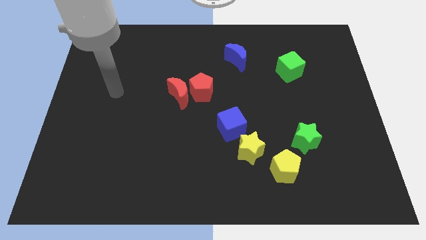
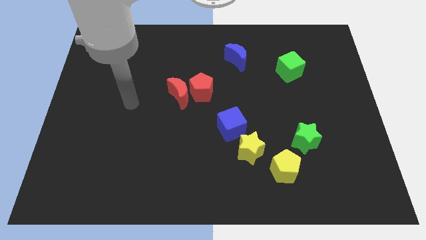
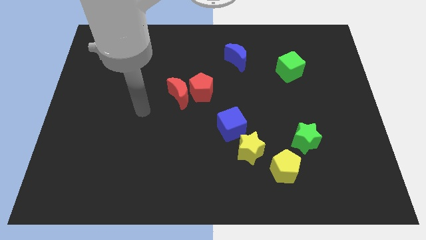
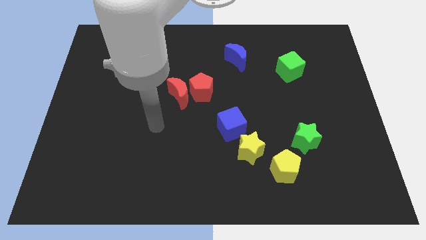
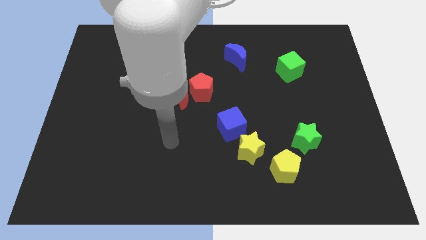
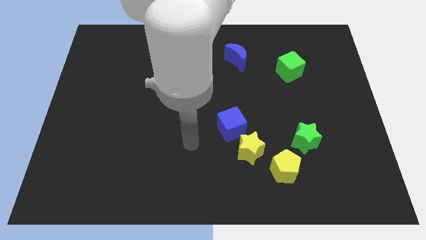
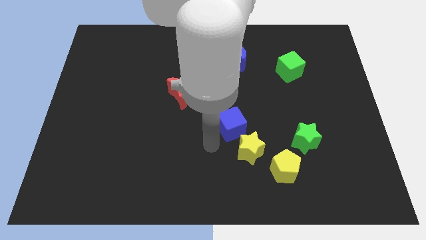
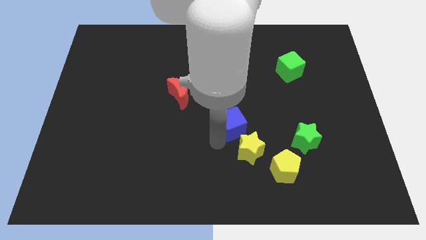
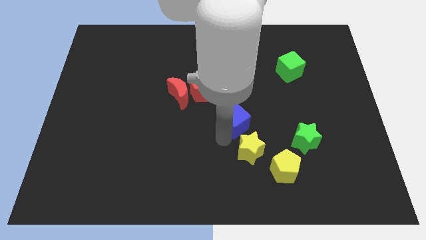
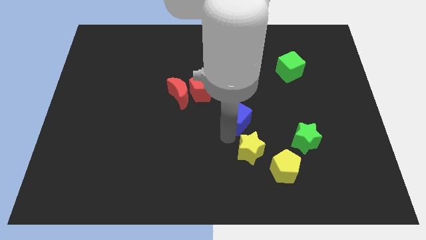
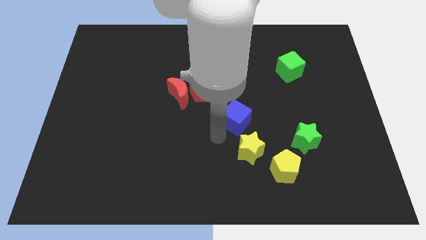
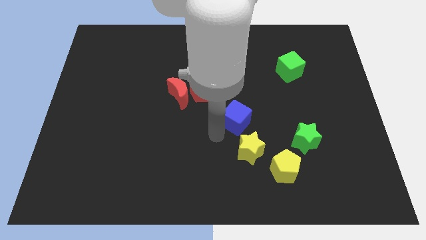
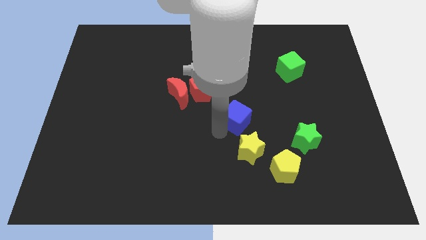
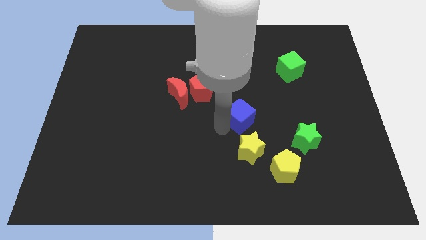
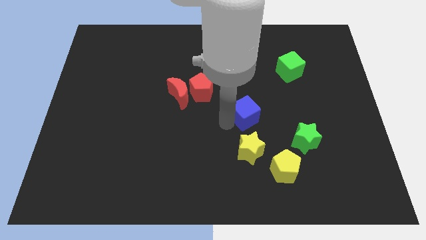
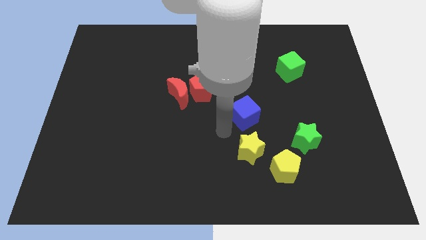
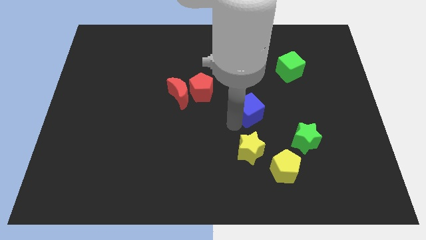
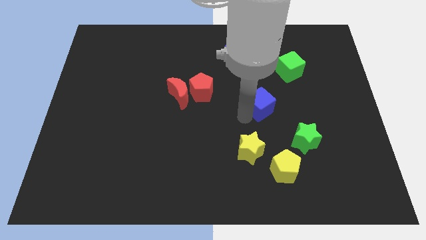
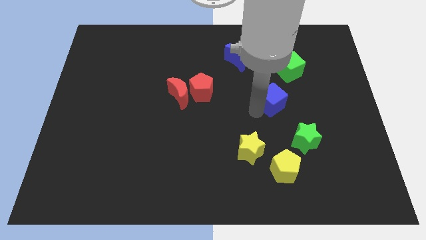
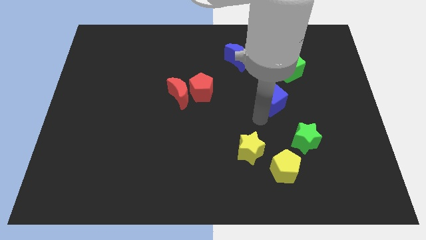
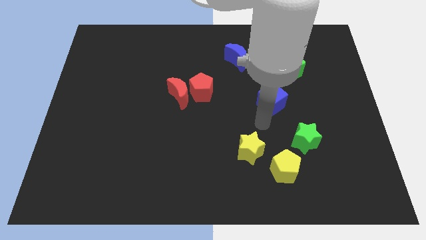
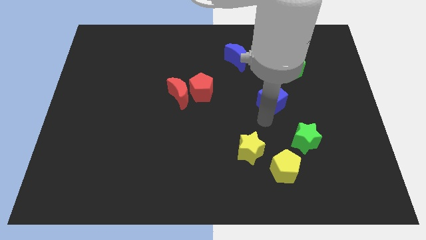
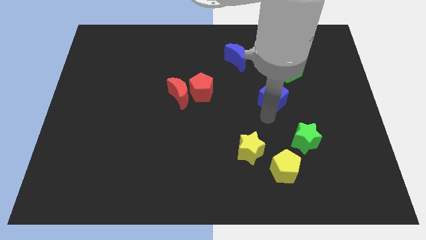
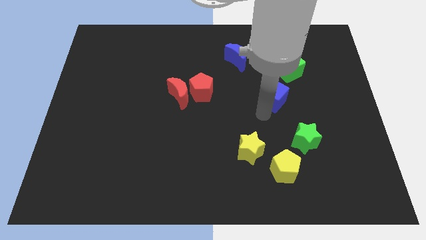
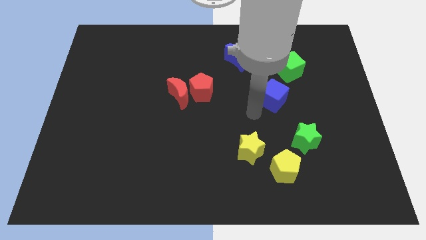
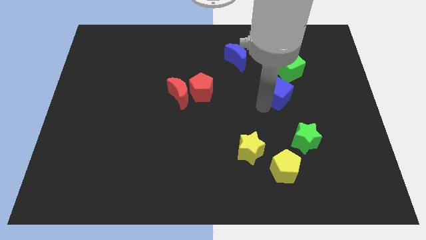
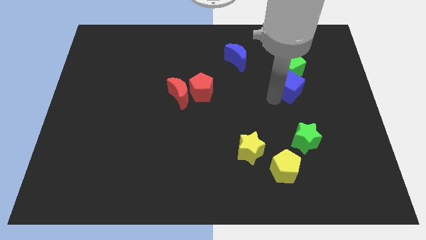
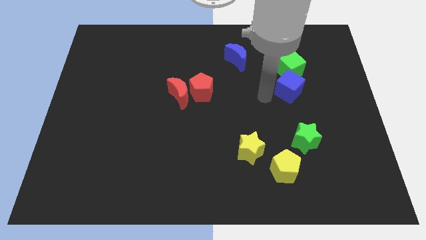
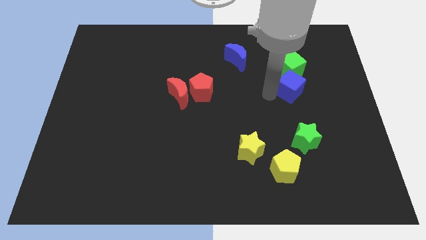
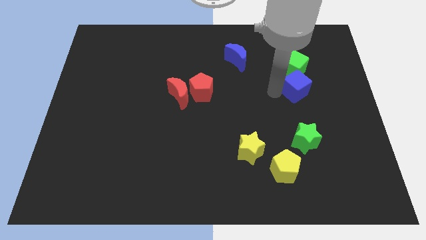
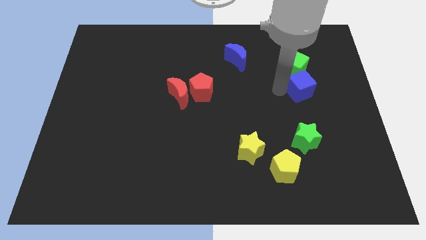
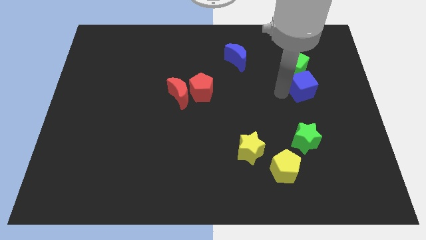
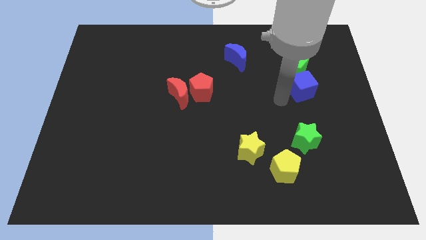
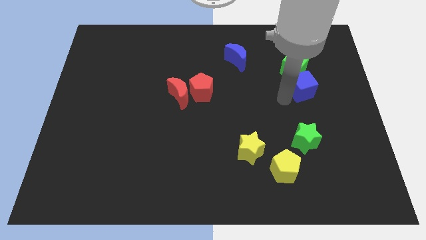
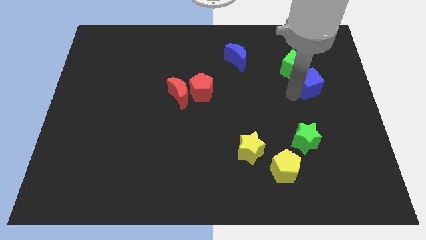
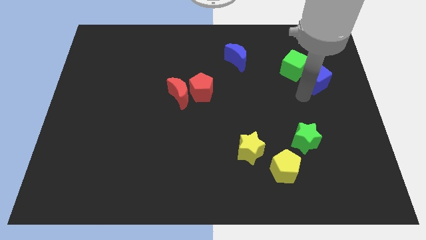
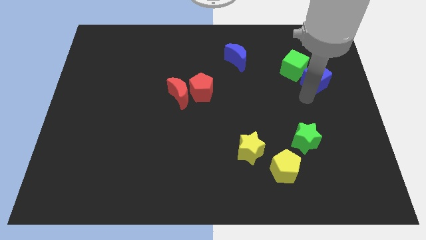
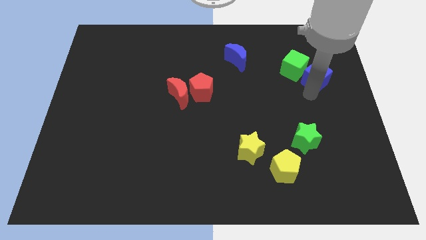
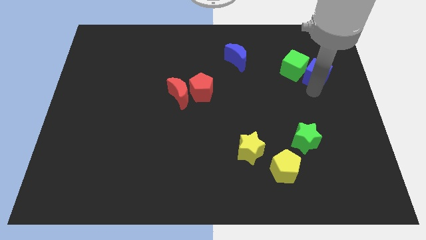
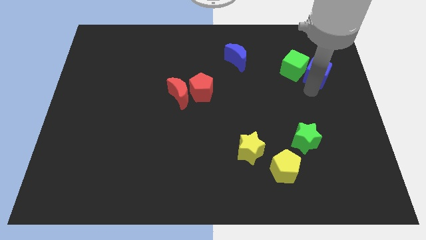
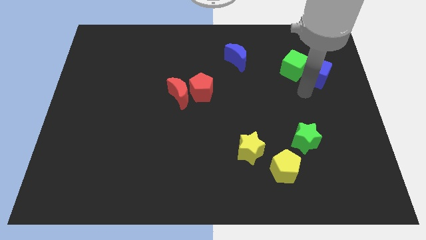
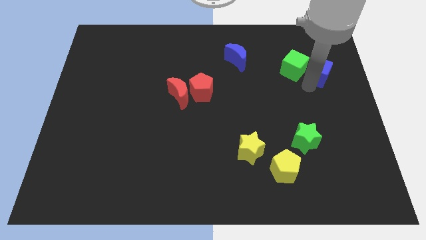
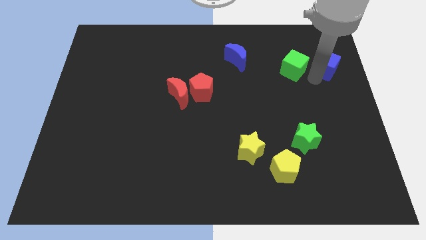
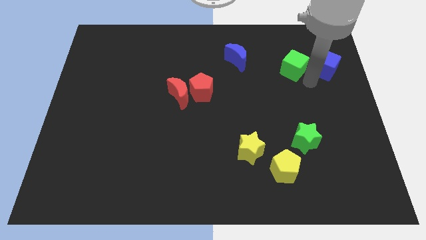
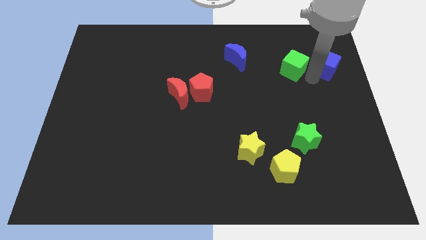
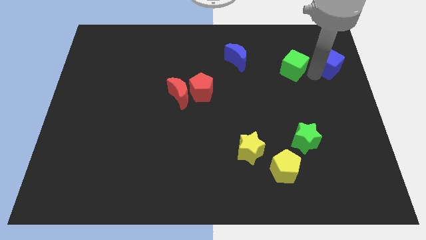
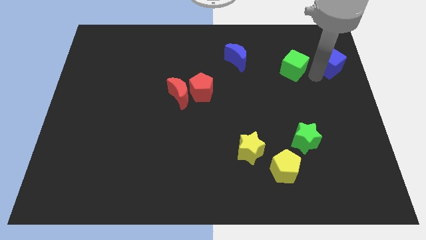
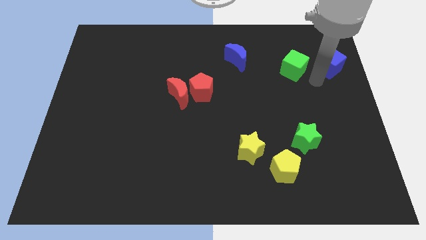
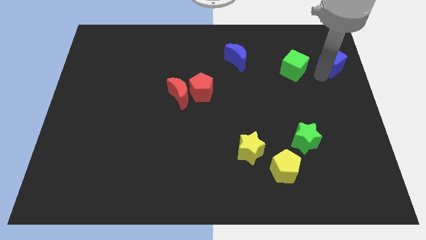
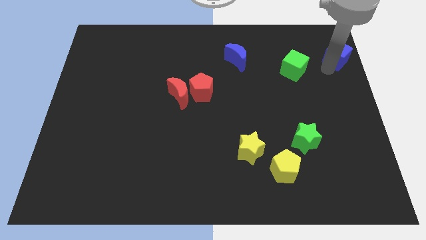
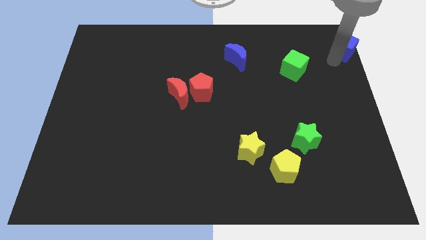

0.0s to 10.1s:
put the blue cube to the upper right corner

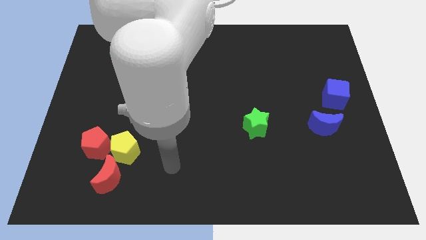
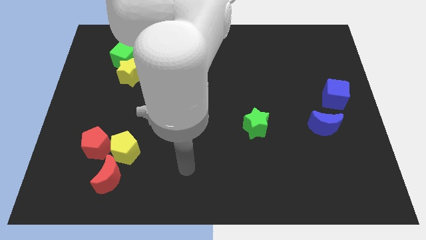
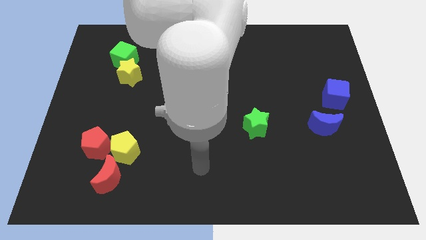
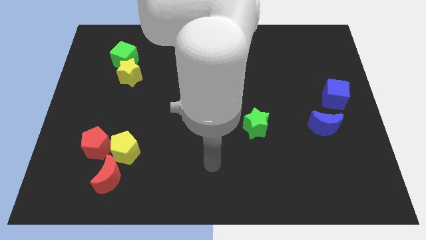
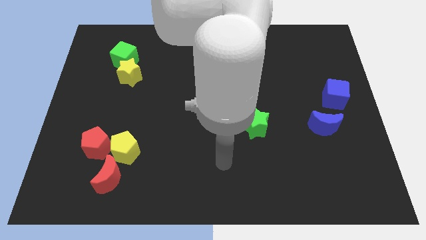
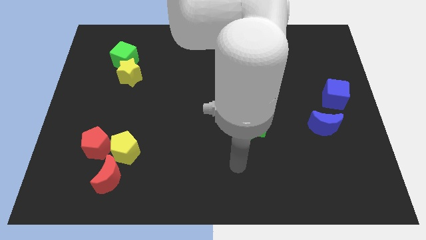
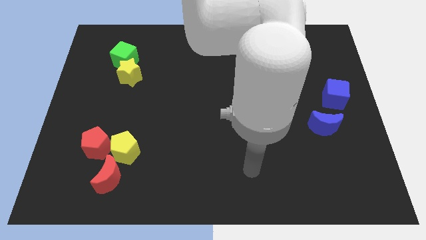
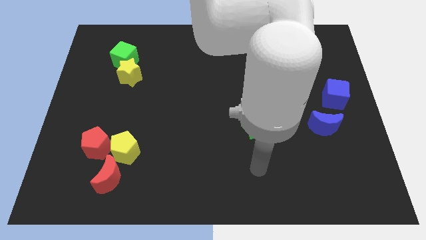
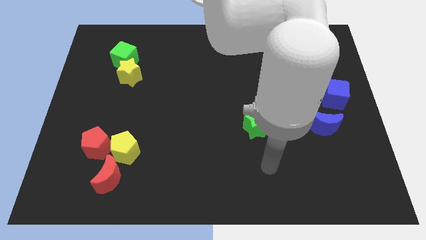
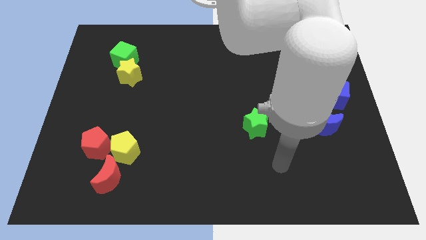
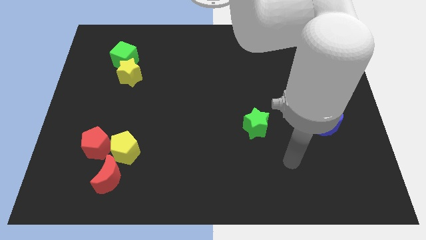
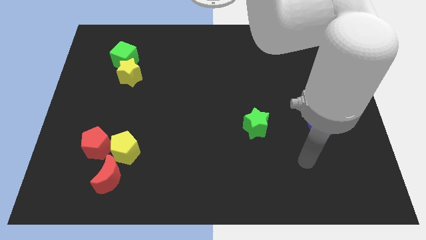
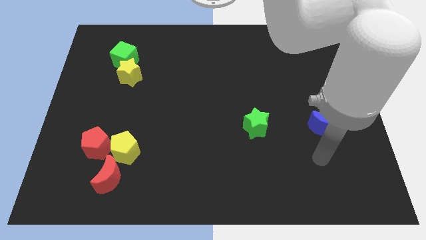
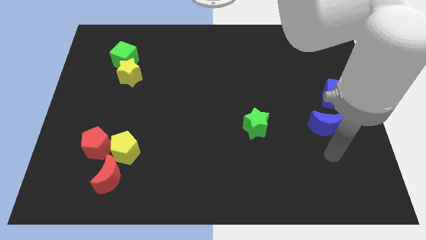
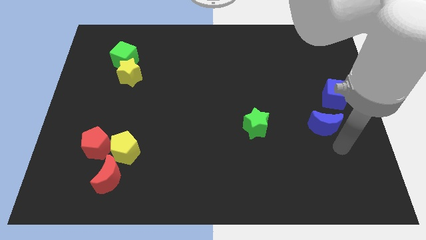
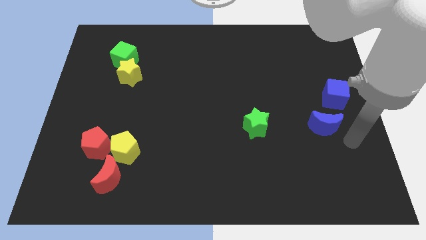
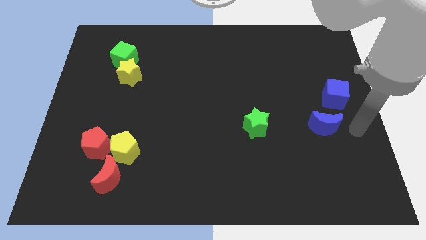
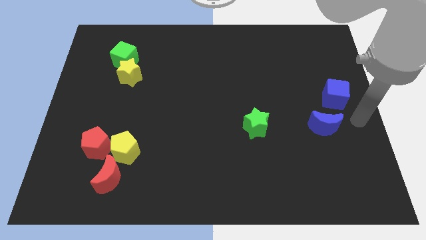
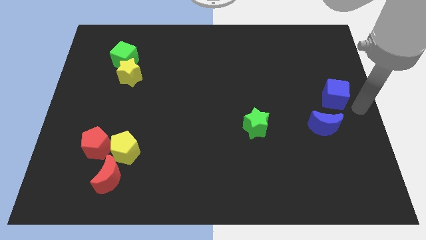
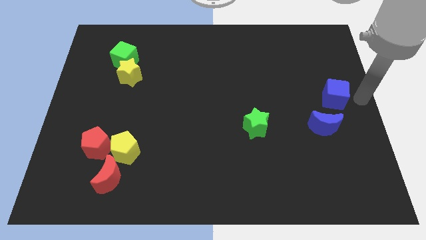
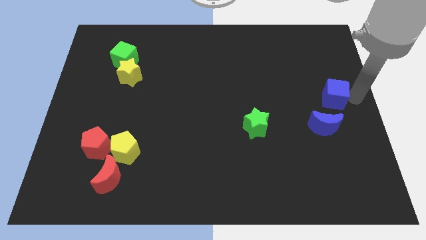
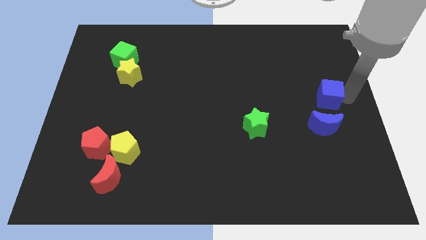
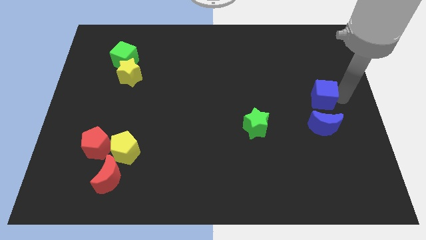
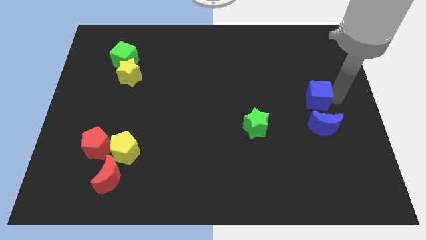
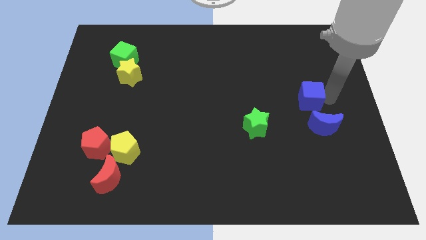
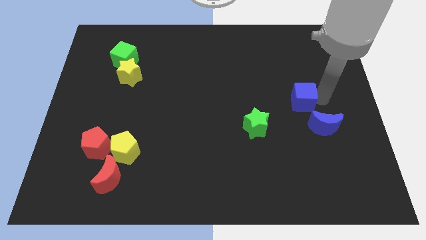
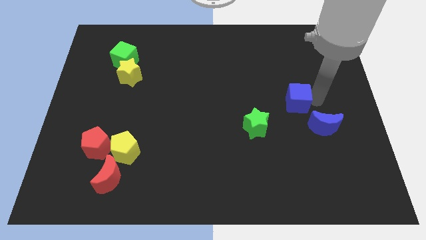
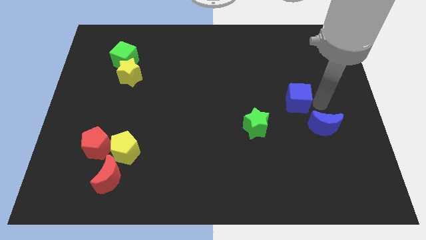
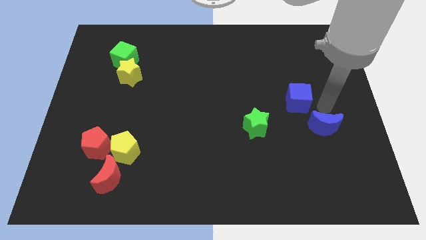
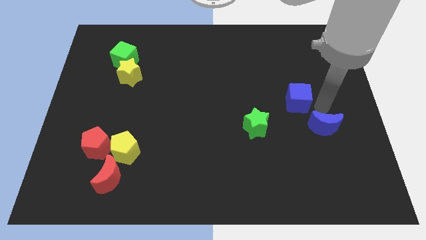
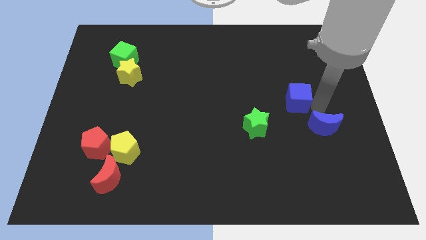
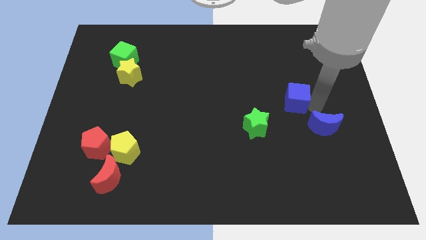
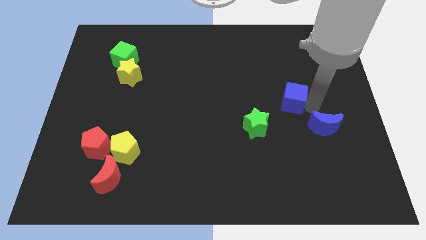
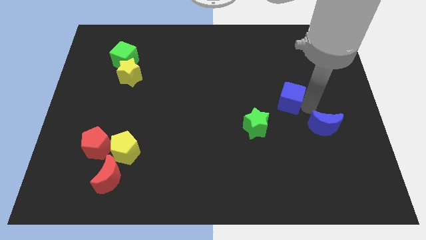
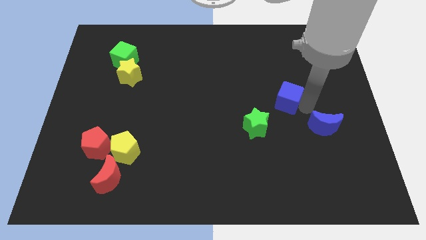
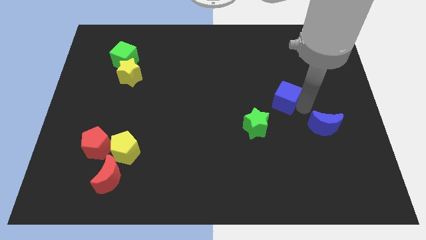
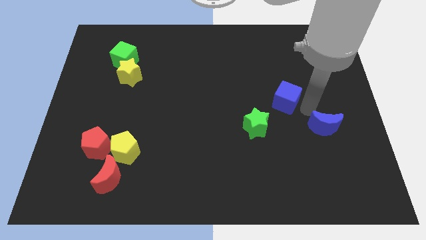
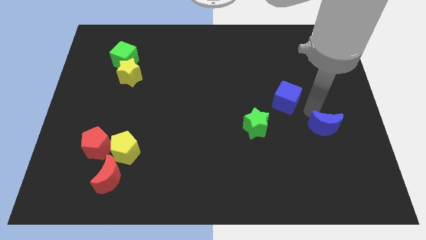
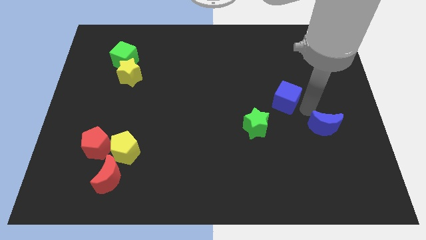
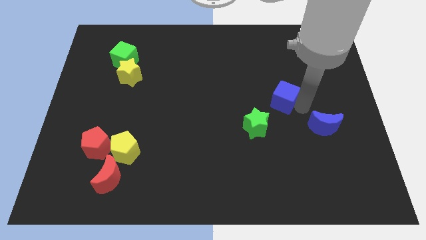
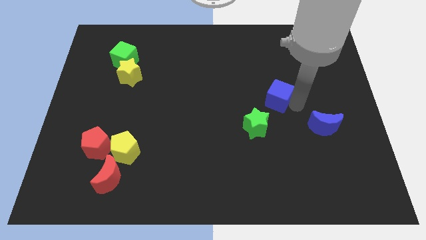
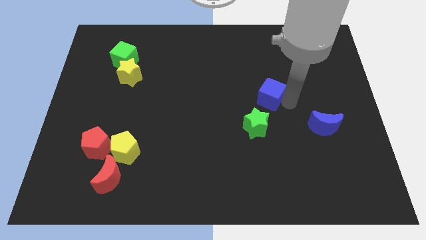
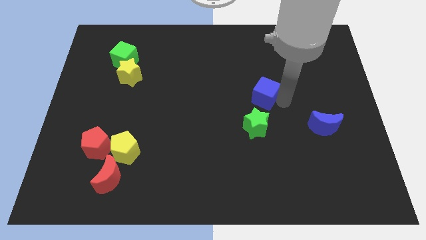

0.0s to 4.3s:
move the blue cube to the middle of the board
